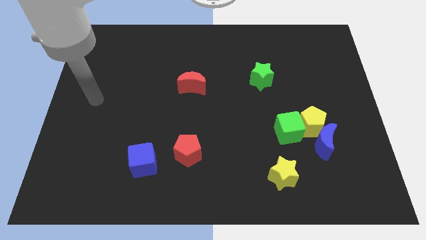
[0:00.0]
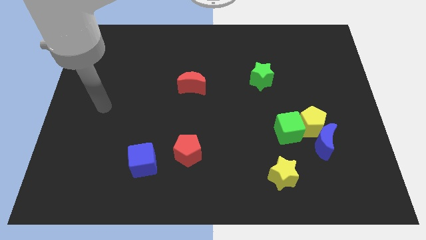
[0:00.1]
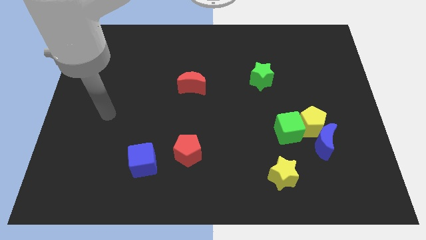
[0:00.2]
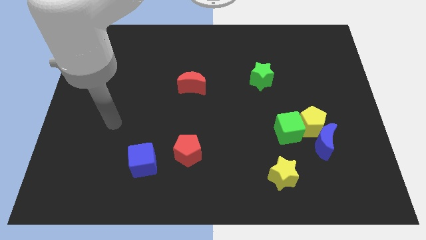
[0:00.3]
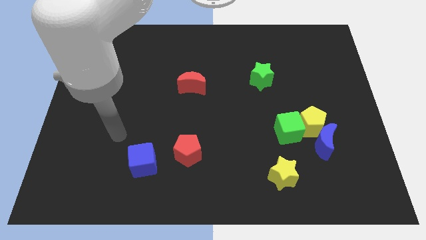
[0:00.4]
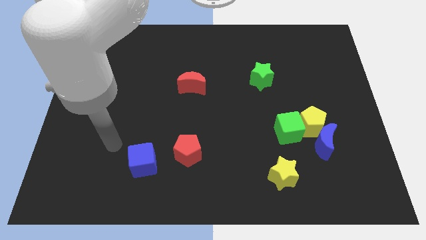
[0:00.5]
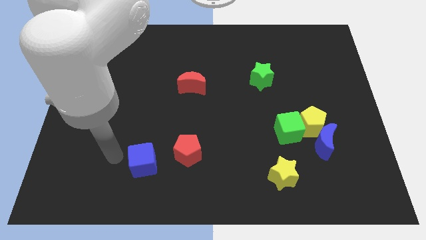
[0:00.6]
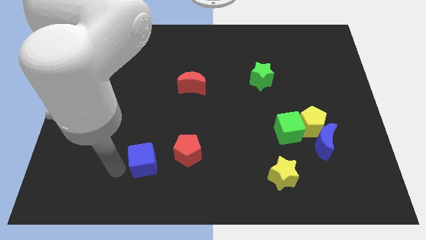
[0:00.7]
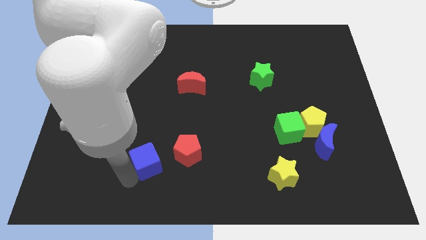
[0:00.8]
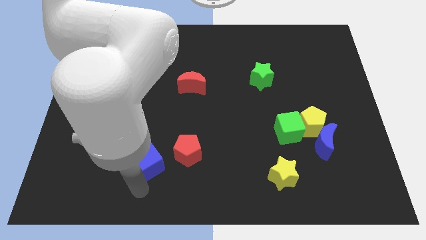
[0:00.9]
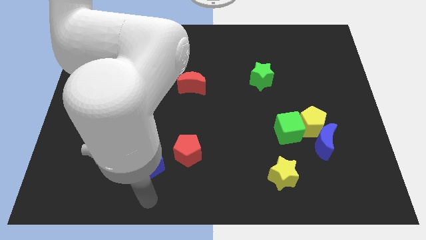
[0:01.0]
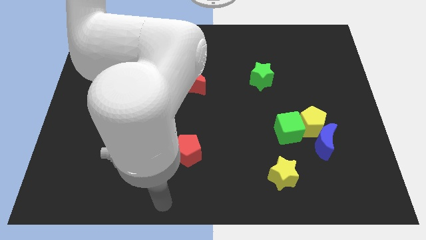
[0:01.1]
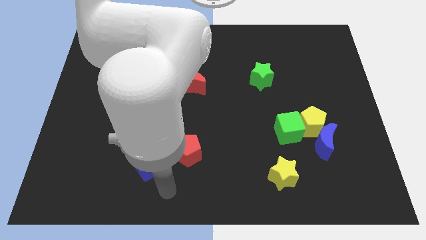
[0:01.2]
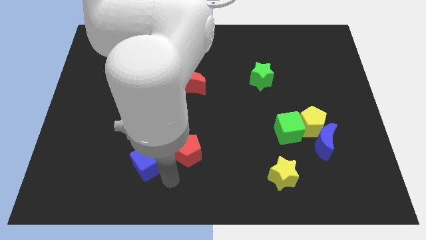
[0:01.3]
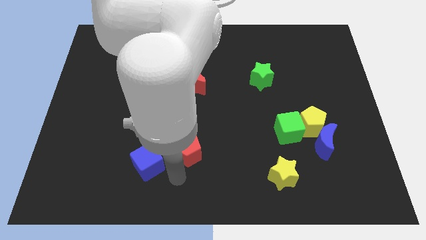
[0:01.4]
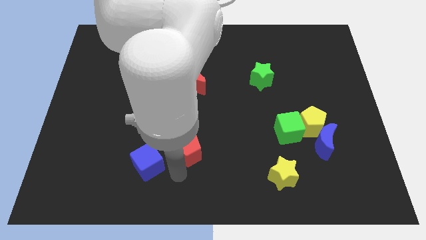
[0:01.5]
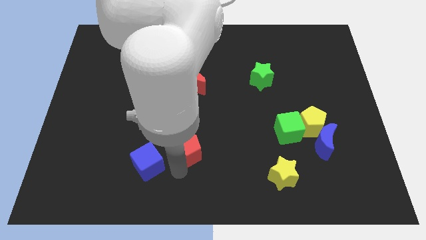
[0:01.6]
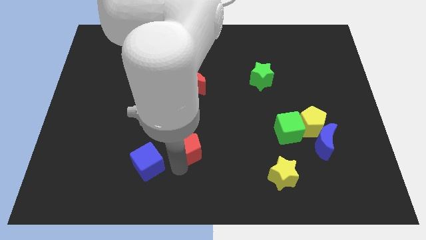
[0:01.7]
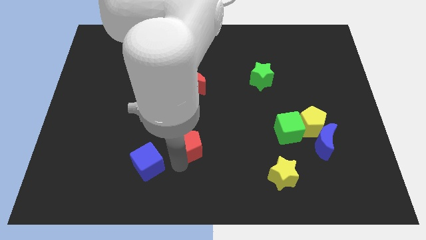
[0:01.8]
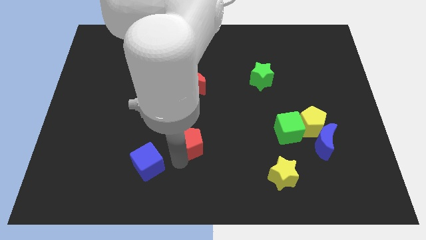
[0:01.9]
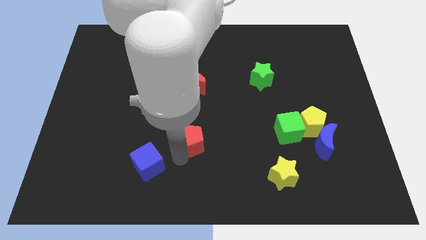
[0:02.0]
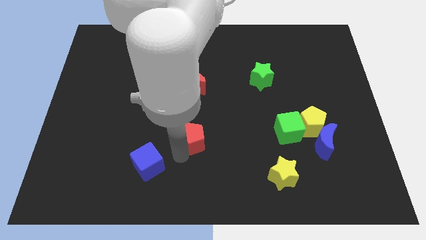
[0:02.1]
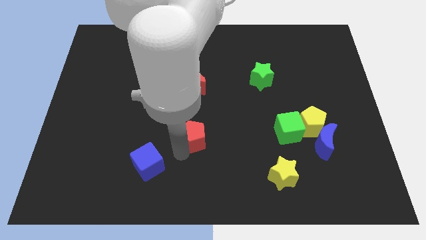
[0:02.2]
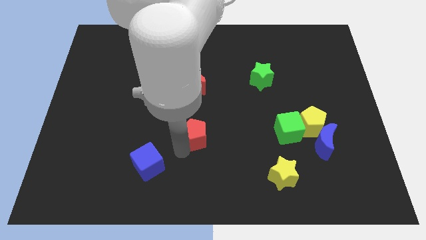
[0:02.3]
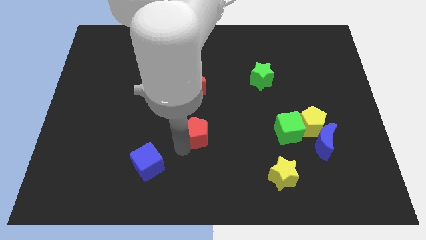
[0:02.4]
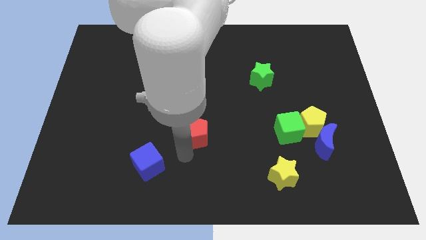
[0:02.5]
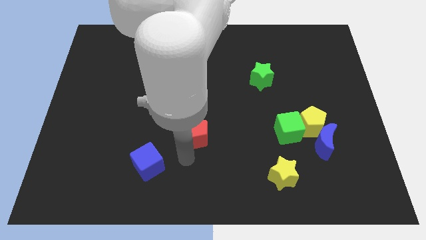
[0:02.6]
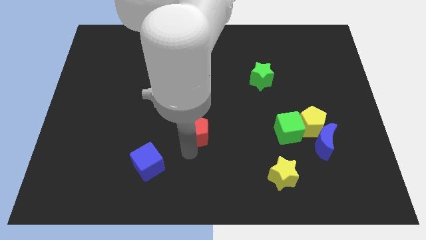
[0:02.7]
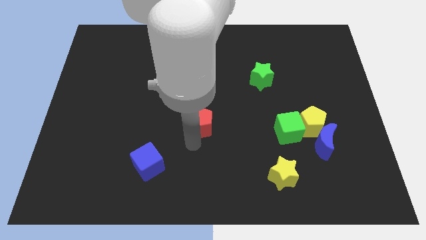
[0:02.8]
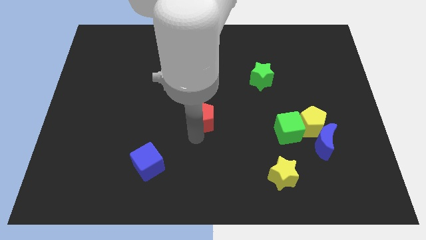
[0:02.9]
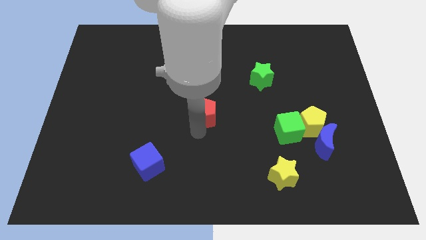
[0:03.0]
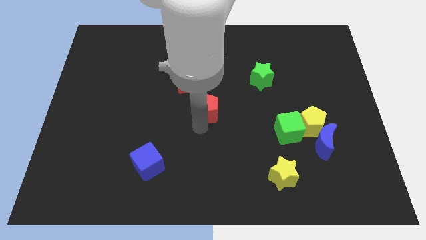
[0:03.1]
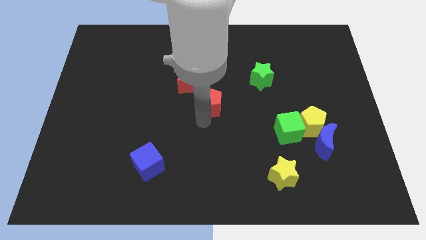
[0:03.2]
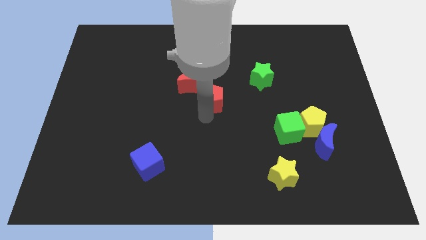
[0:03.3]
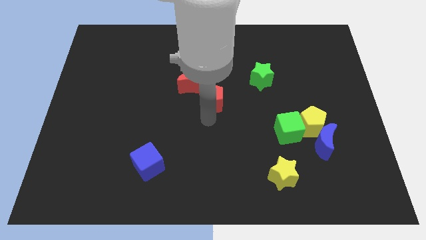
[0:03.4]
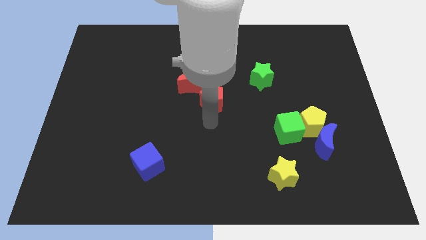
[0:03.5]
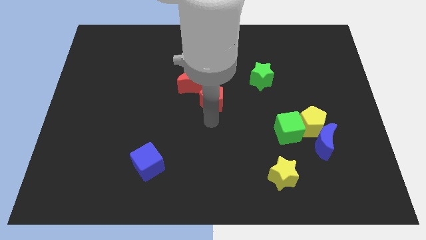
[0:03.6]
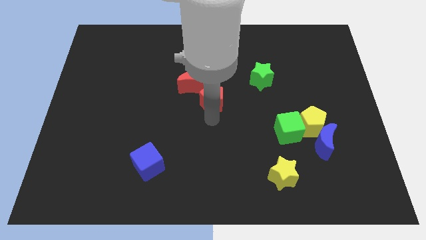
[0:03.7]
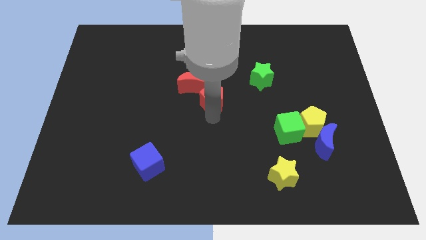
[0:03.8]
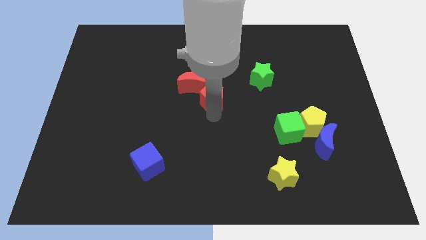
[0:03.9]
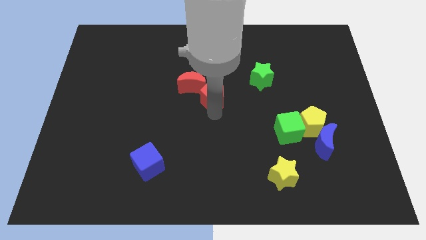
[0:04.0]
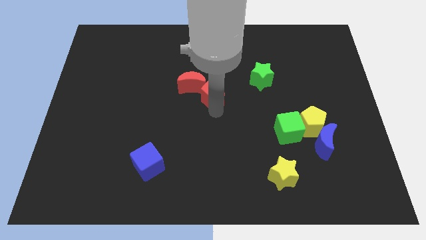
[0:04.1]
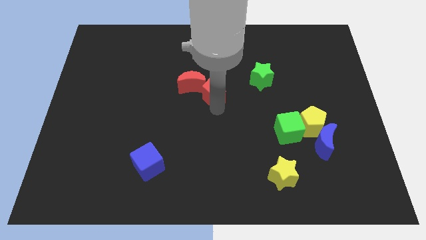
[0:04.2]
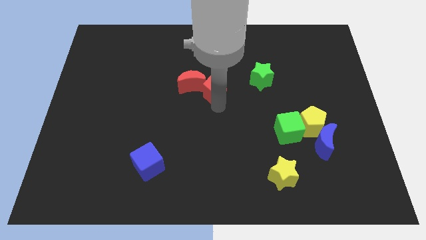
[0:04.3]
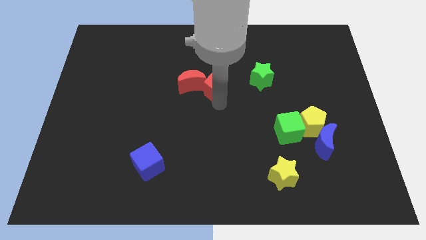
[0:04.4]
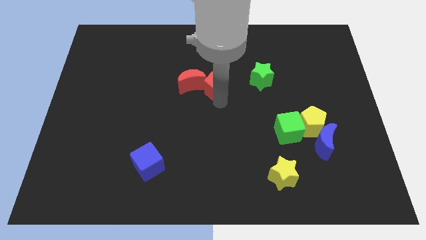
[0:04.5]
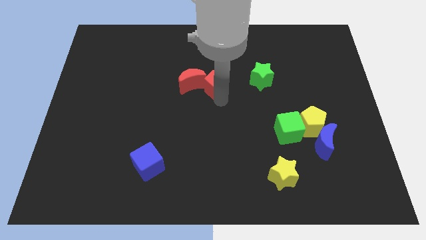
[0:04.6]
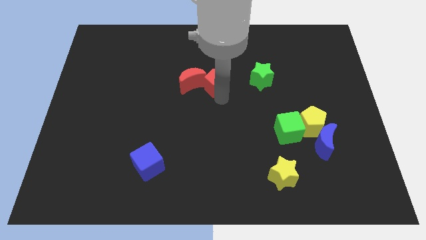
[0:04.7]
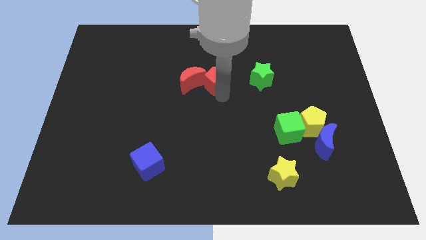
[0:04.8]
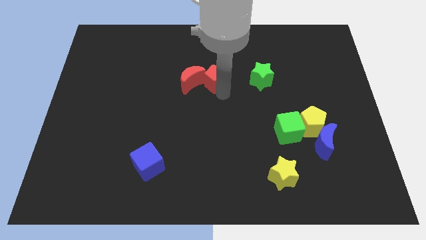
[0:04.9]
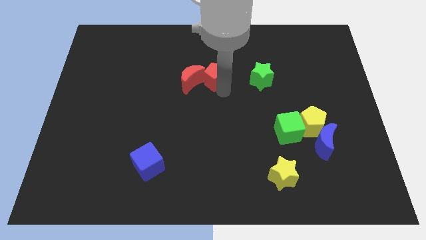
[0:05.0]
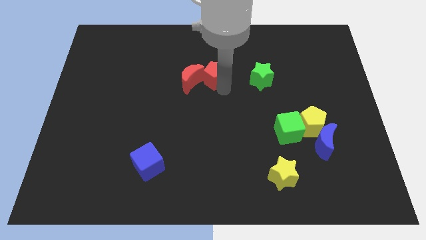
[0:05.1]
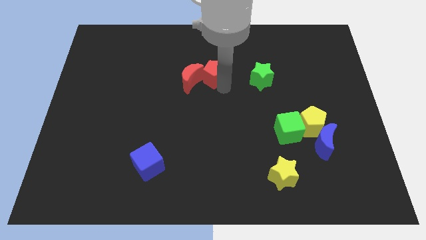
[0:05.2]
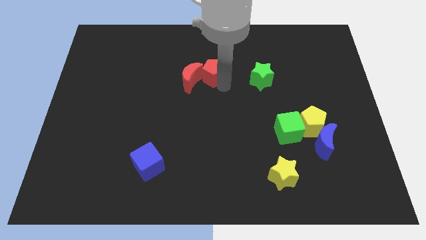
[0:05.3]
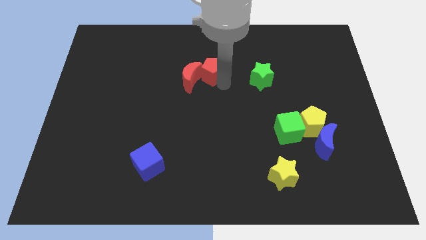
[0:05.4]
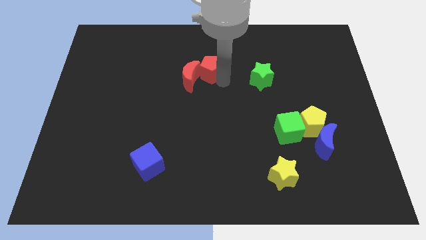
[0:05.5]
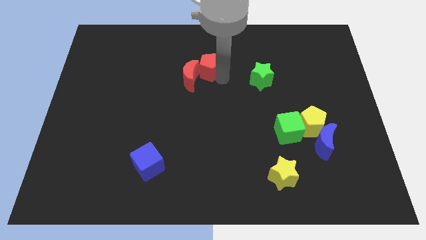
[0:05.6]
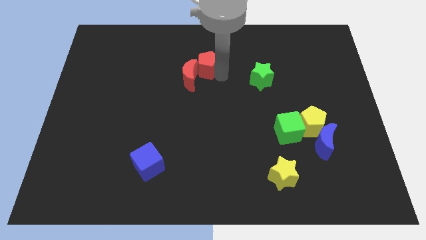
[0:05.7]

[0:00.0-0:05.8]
push the red pentagon to the top of the red moon

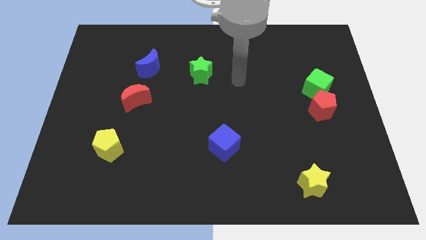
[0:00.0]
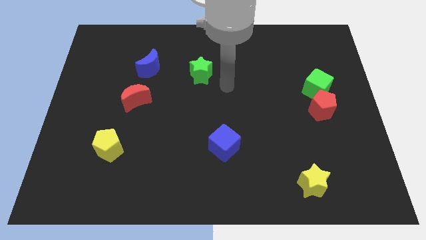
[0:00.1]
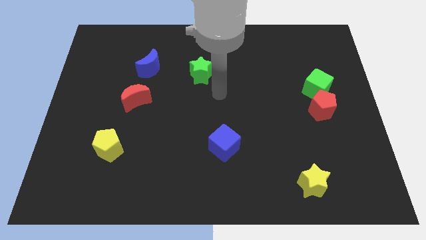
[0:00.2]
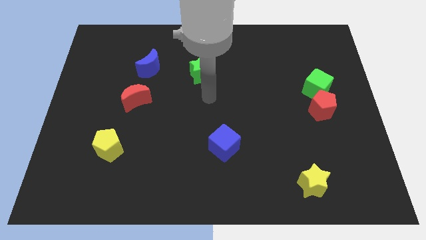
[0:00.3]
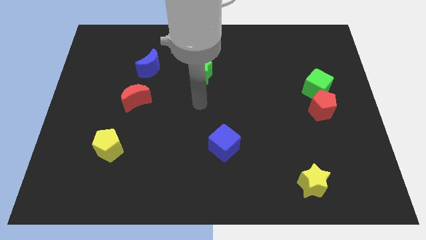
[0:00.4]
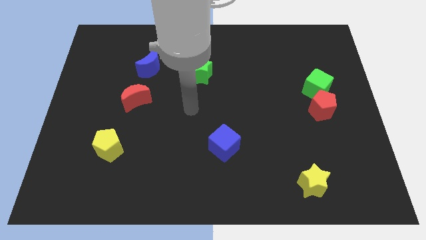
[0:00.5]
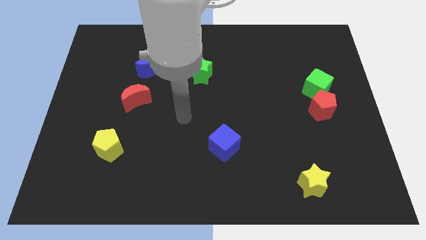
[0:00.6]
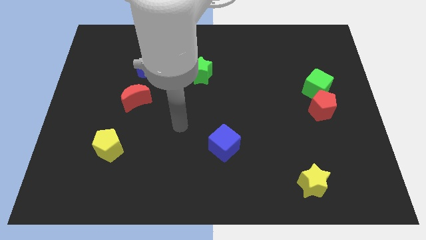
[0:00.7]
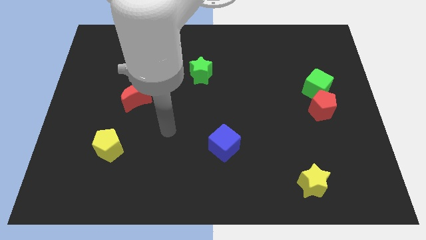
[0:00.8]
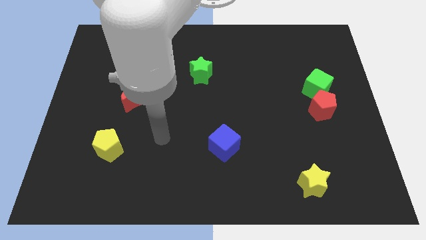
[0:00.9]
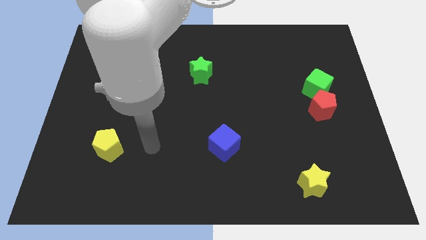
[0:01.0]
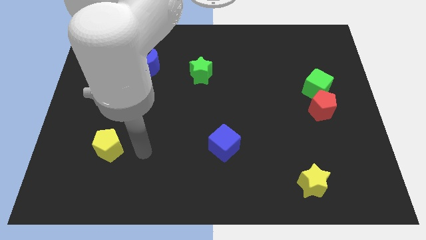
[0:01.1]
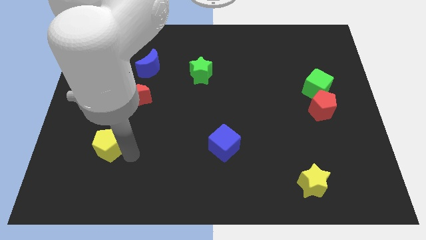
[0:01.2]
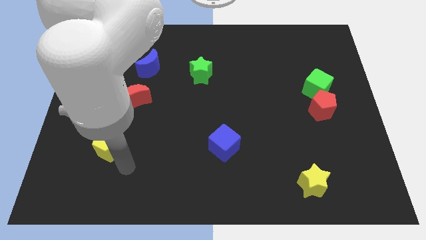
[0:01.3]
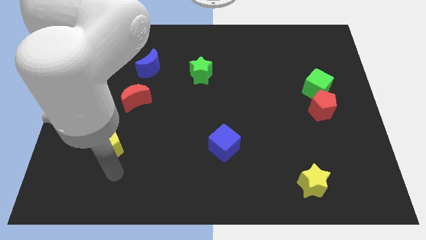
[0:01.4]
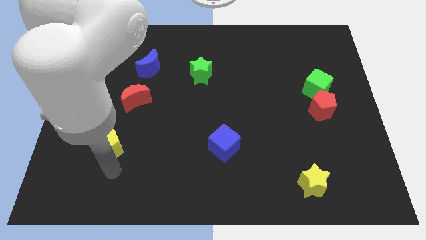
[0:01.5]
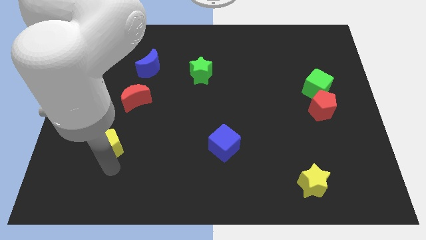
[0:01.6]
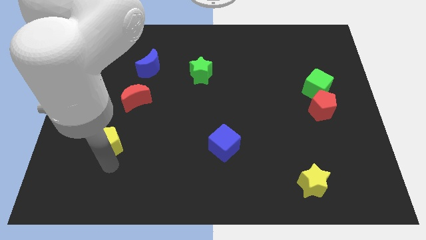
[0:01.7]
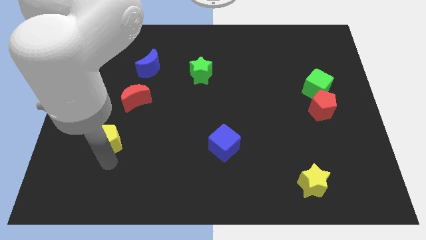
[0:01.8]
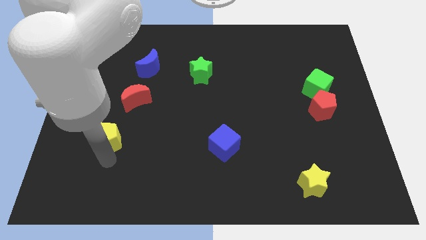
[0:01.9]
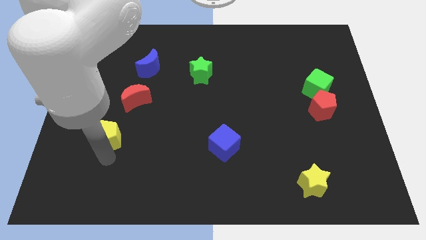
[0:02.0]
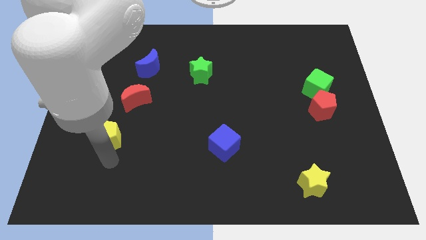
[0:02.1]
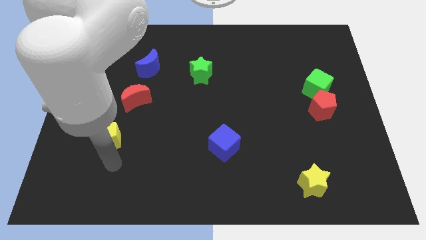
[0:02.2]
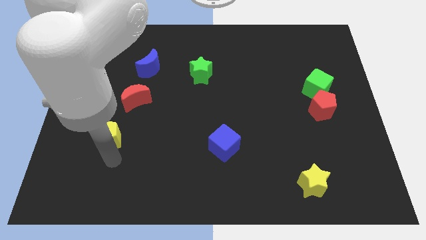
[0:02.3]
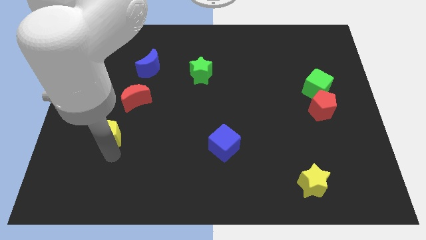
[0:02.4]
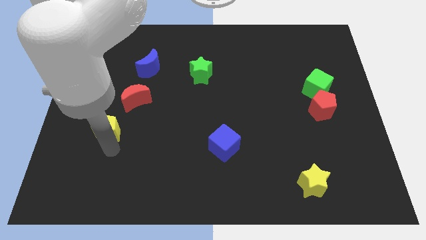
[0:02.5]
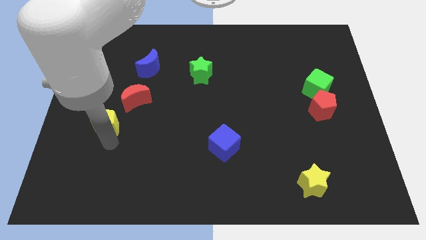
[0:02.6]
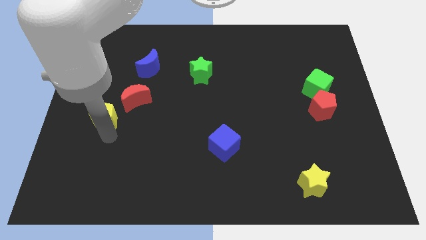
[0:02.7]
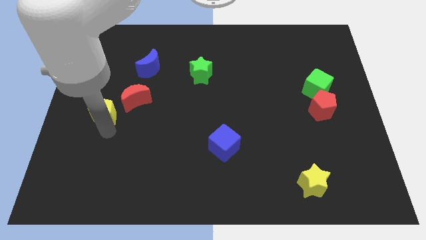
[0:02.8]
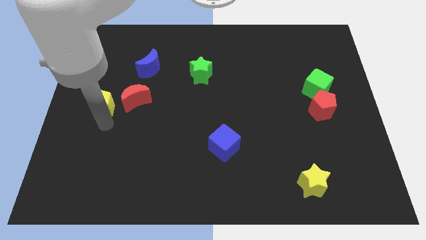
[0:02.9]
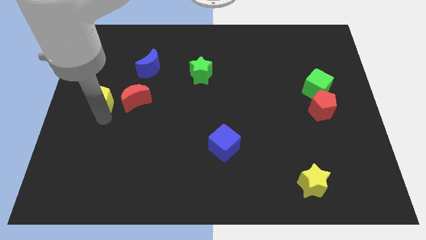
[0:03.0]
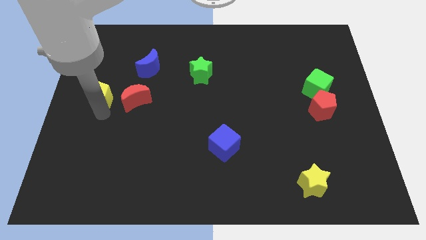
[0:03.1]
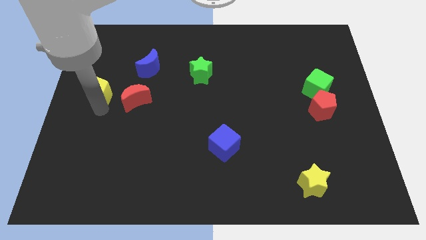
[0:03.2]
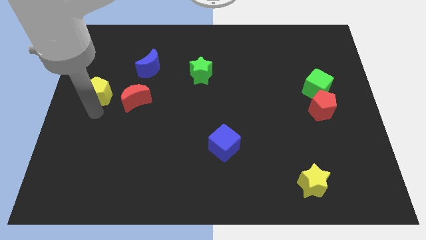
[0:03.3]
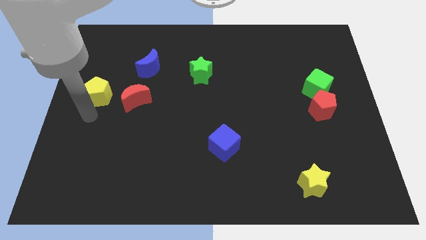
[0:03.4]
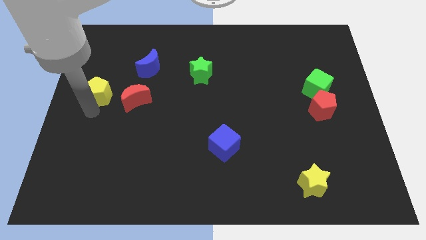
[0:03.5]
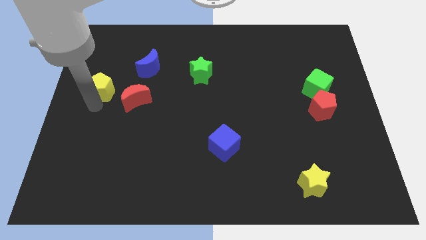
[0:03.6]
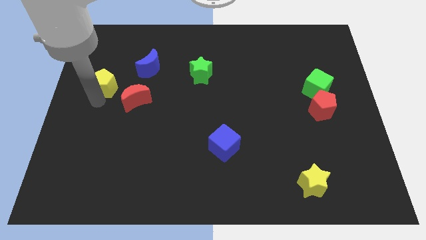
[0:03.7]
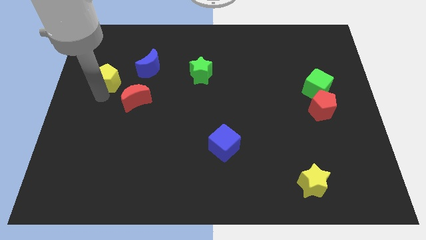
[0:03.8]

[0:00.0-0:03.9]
slide the yellow pentagon left of the blue moon
